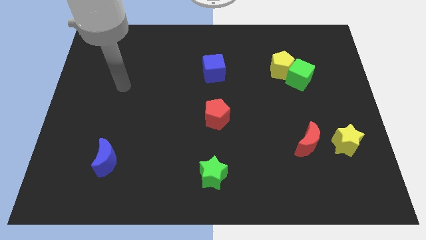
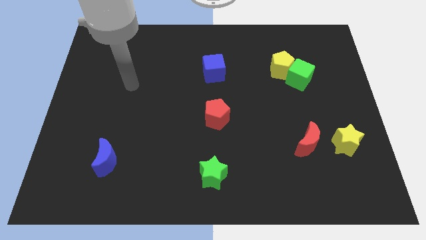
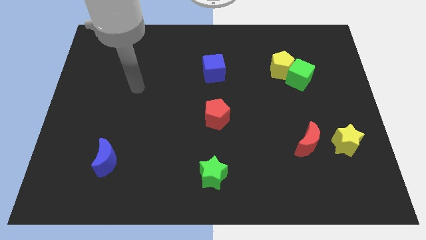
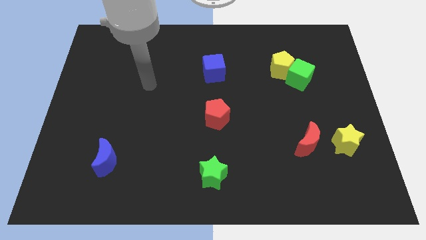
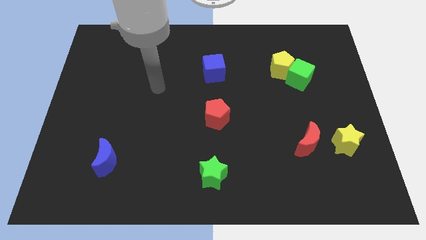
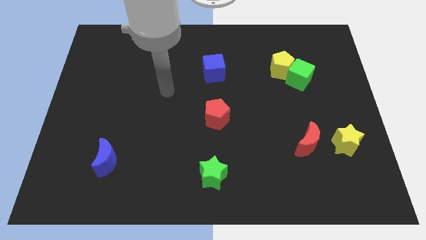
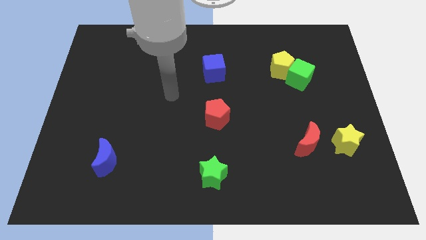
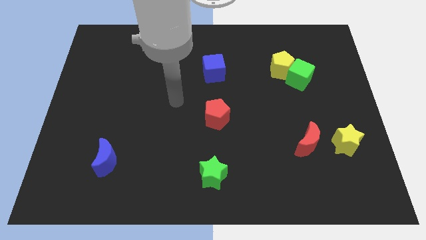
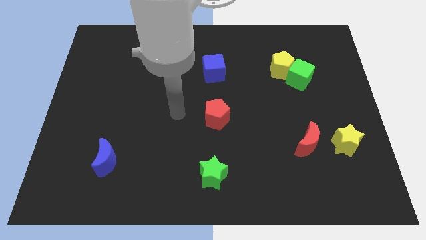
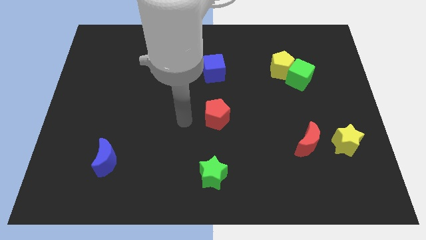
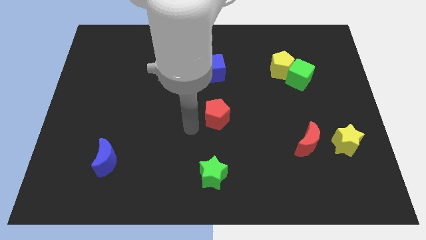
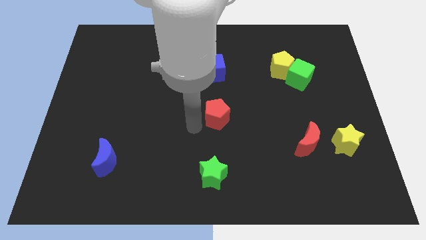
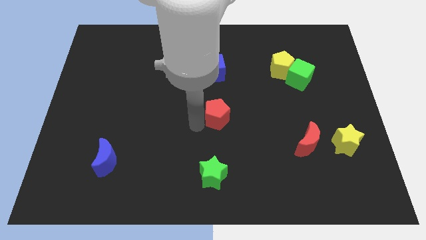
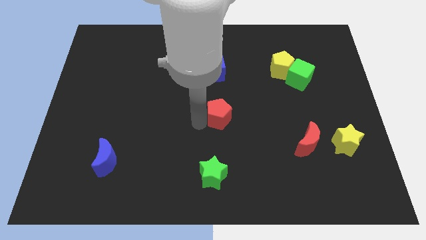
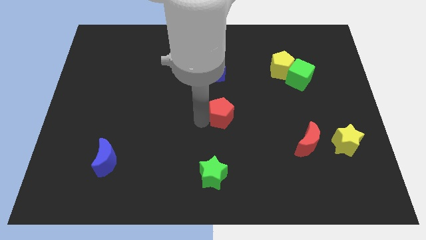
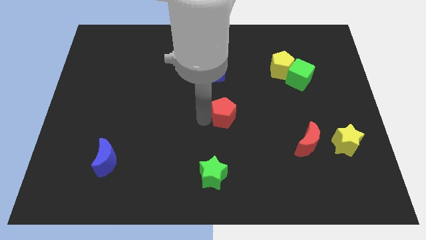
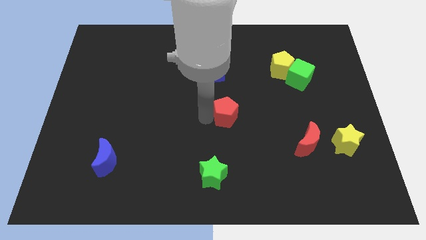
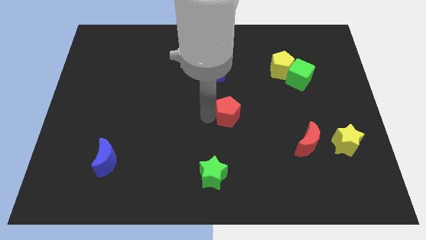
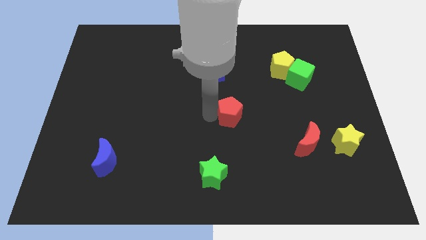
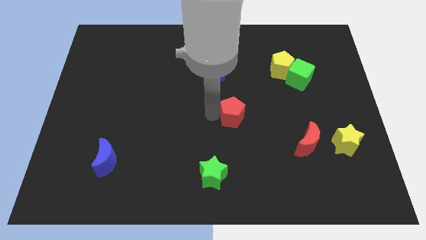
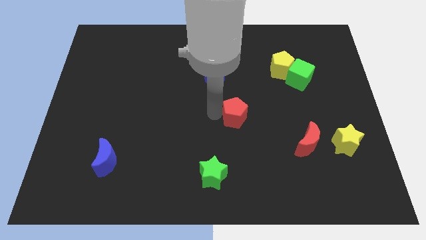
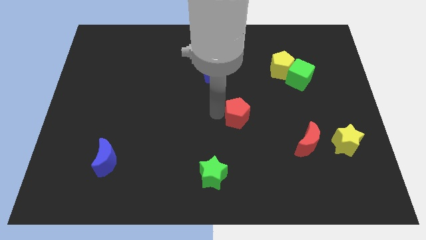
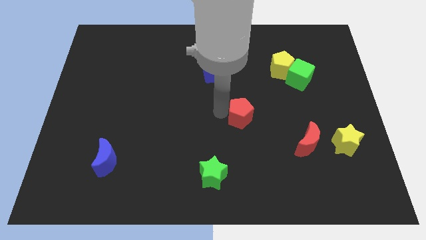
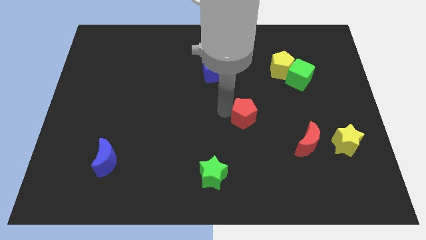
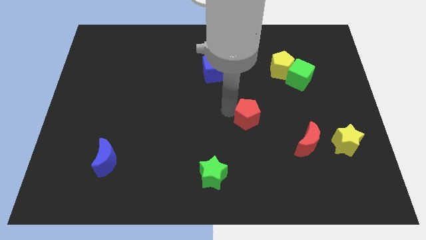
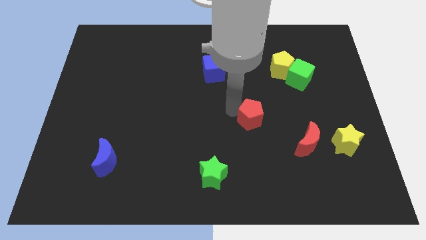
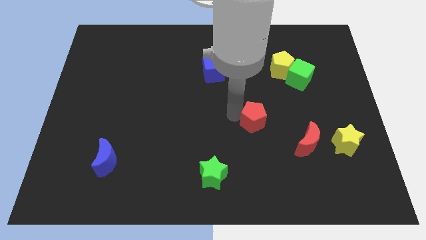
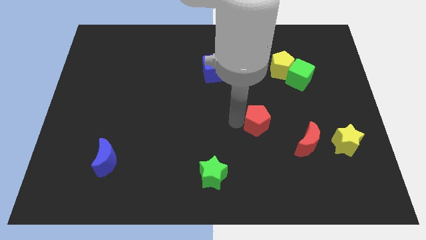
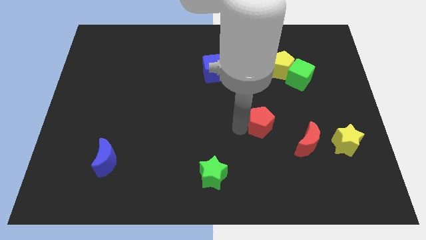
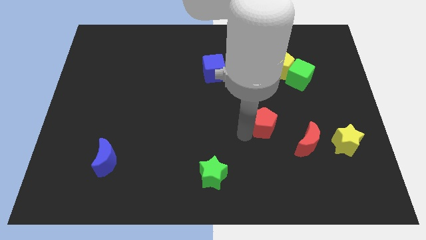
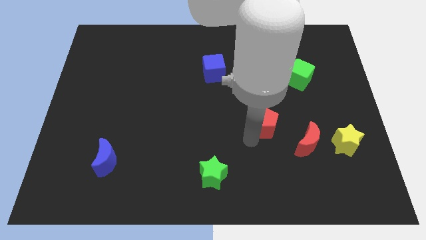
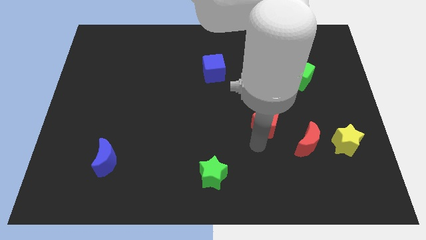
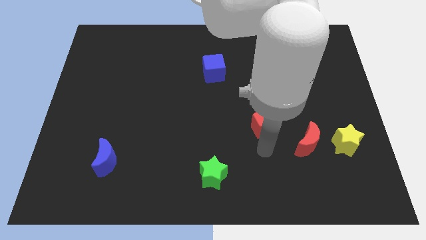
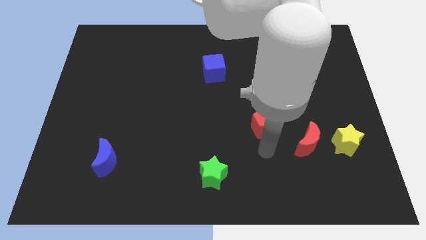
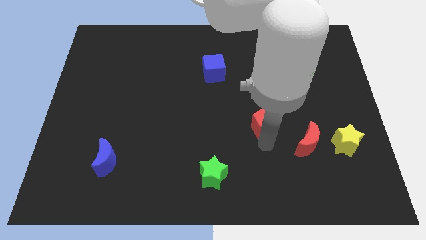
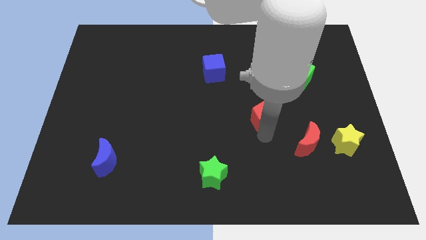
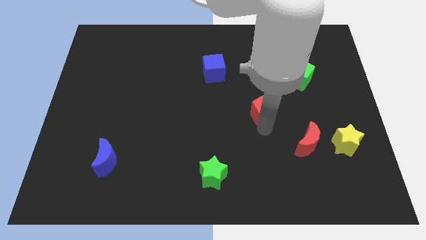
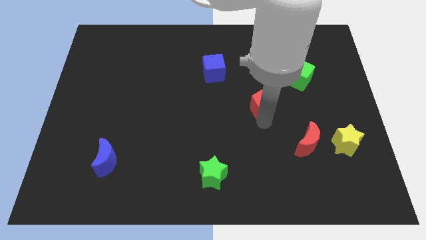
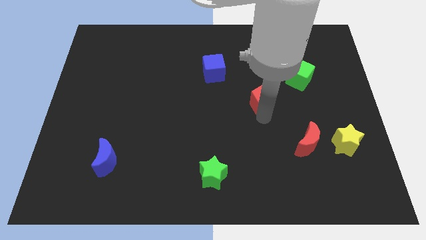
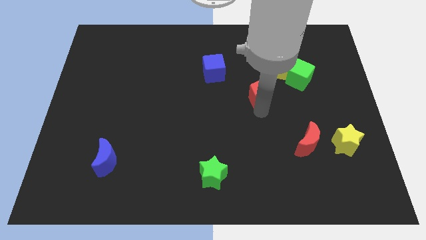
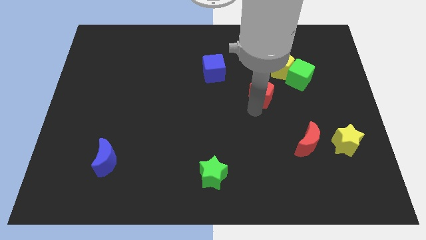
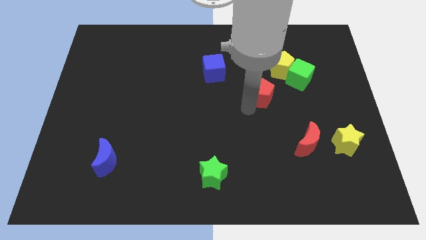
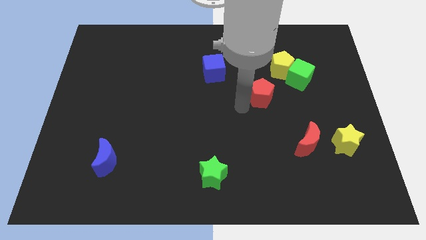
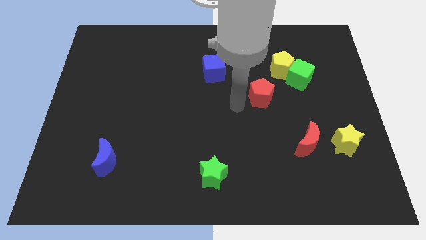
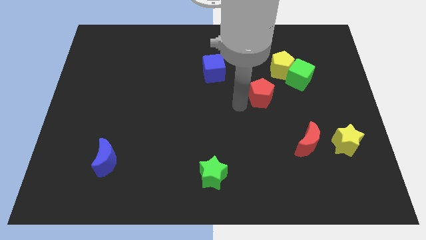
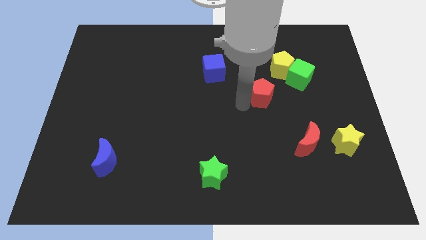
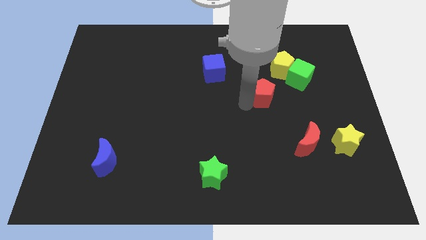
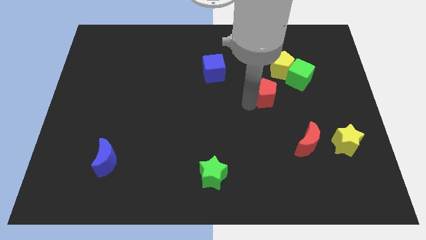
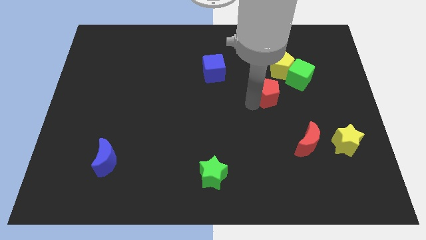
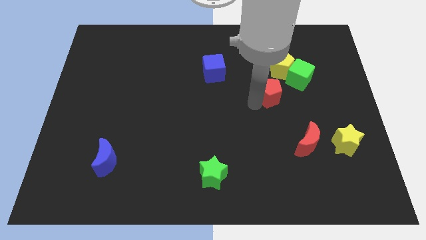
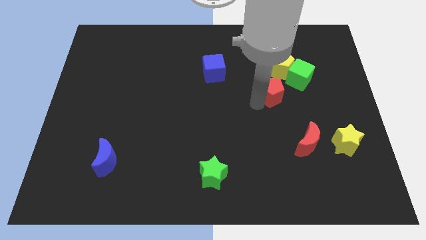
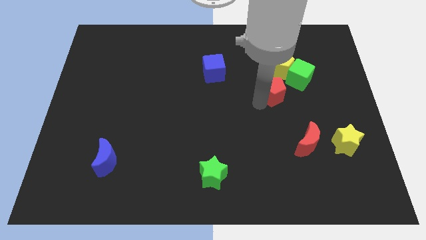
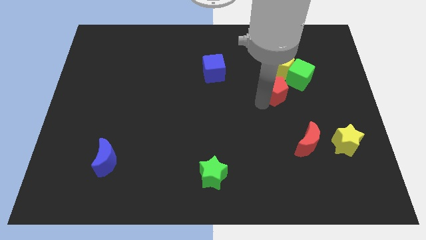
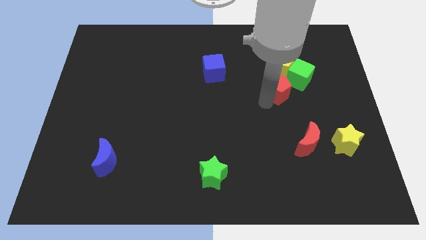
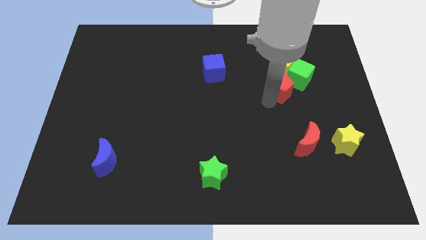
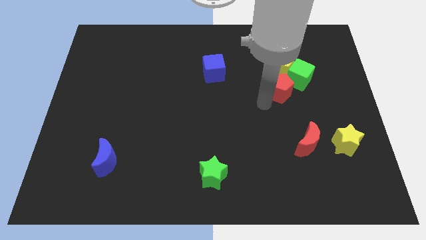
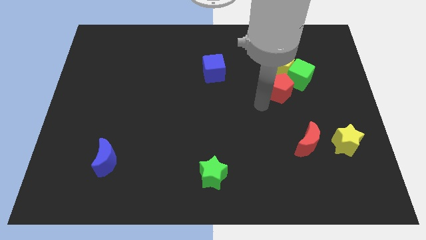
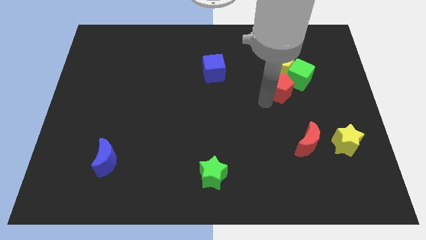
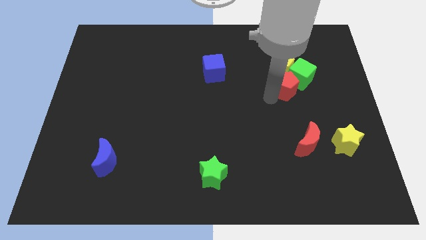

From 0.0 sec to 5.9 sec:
put the red pentagon towards the green cube

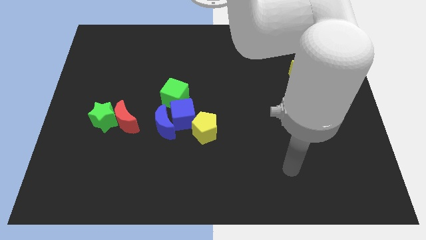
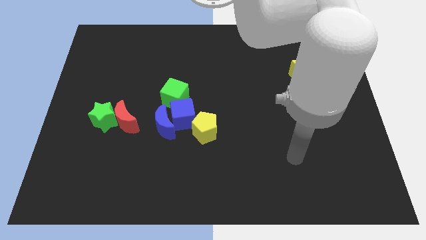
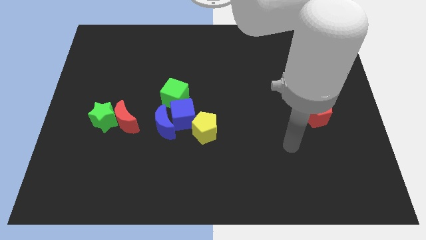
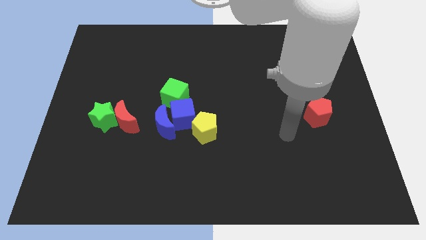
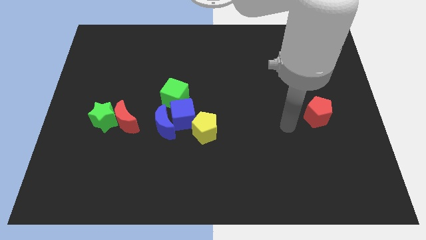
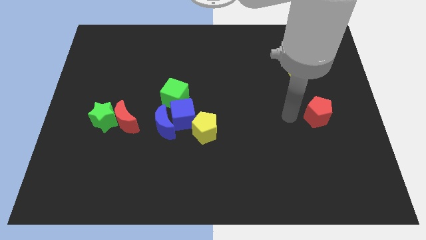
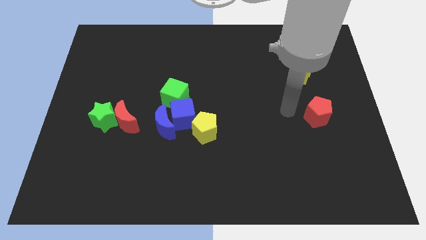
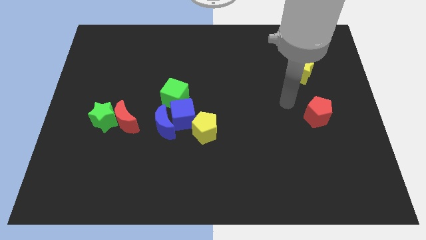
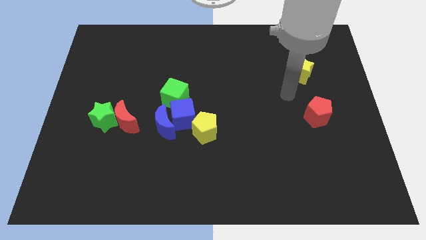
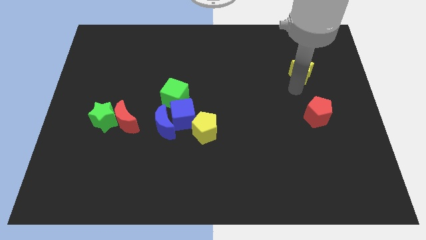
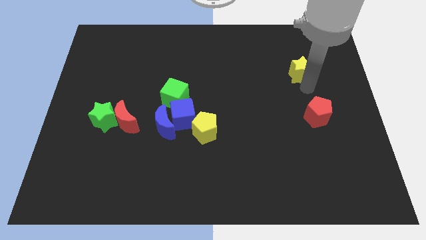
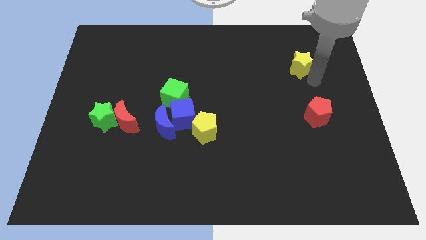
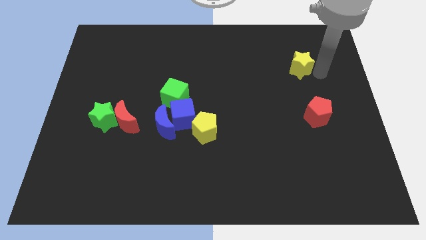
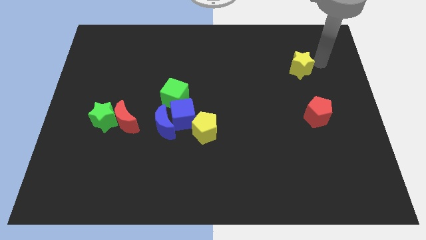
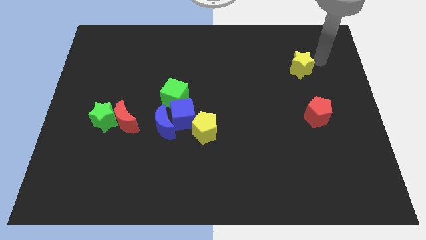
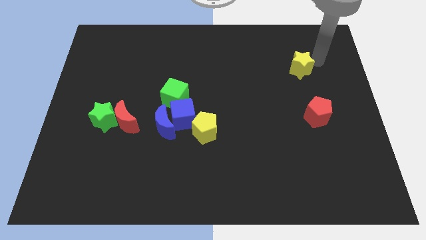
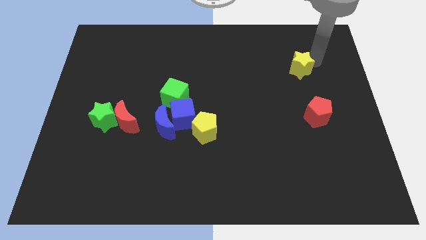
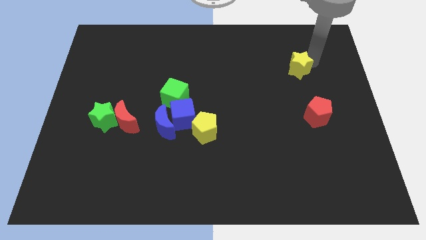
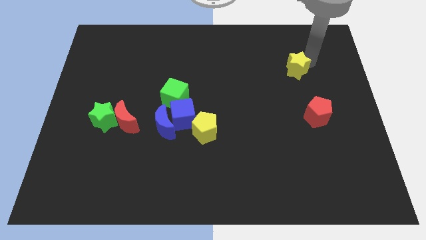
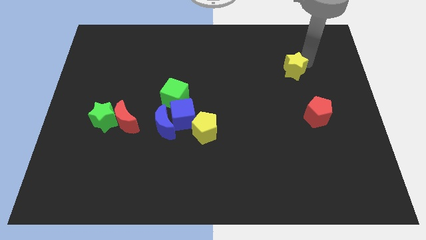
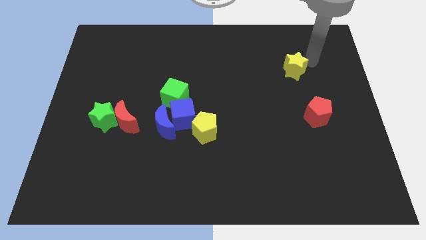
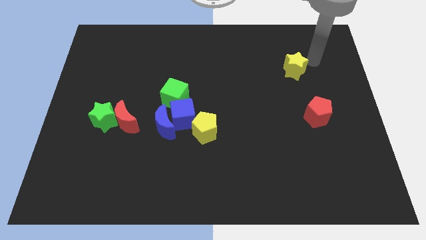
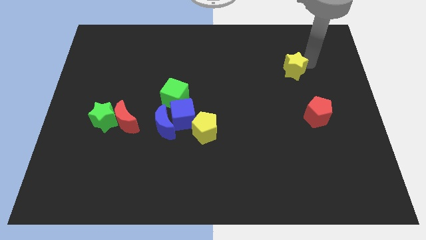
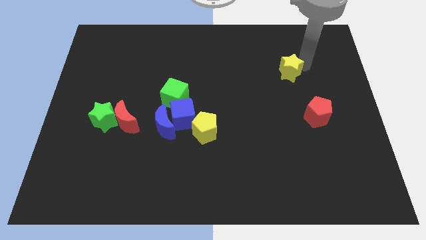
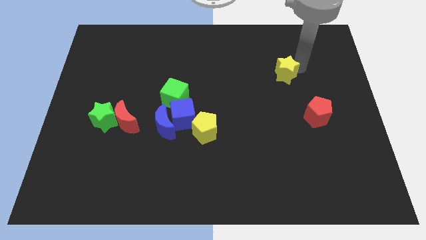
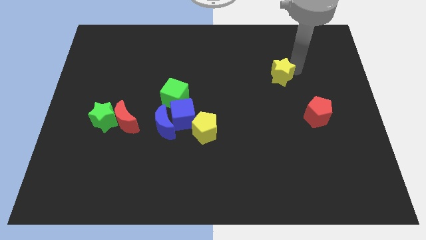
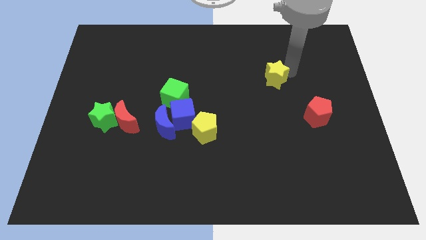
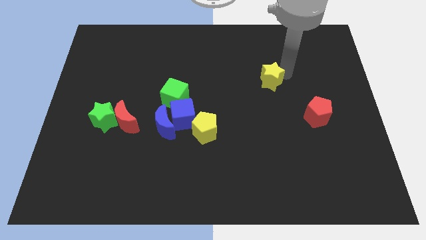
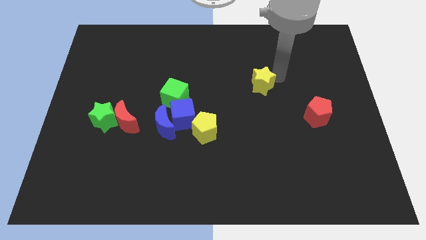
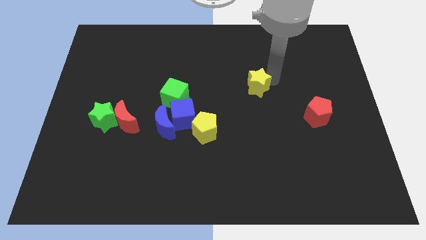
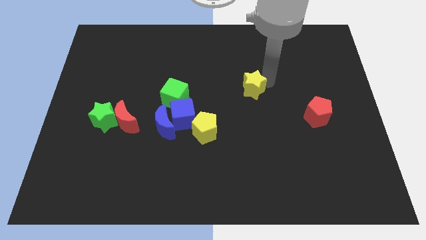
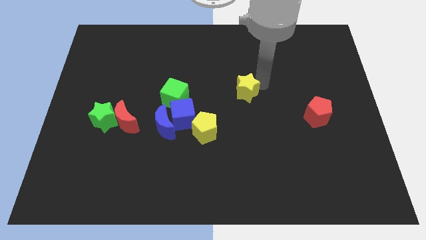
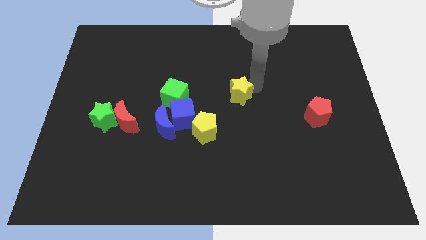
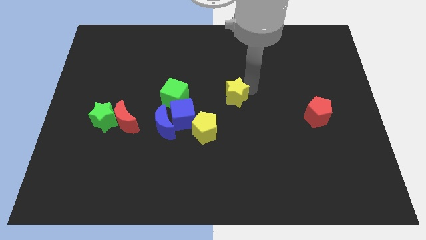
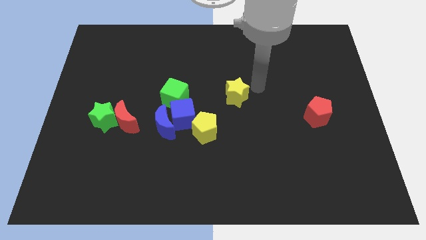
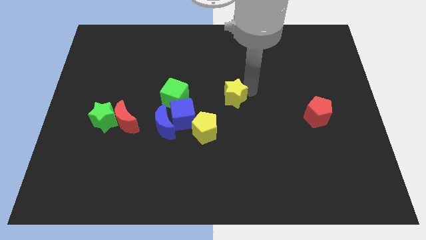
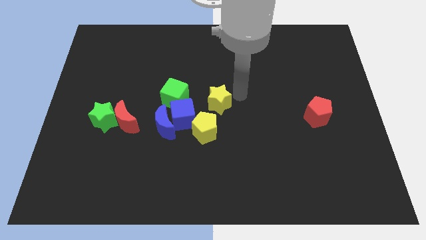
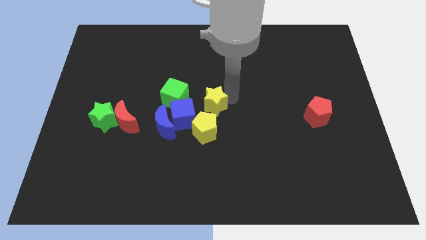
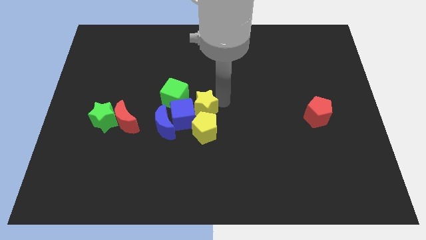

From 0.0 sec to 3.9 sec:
move the yellow star close to the blue cube
